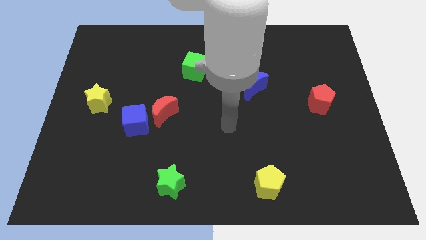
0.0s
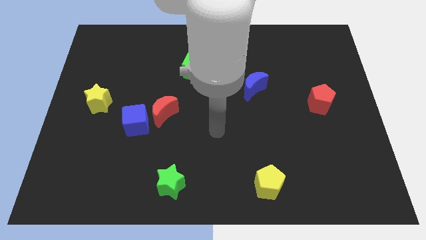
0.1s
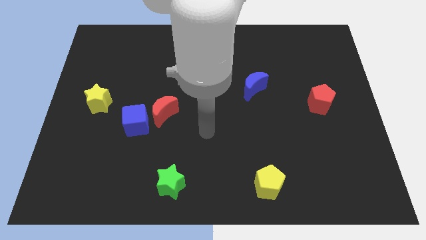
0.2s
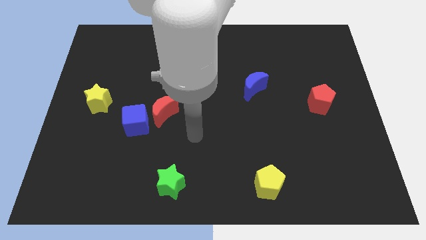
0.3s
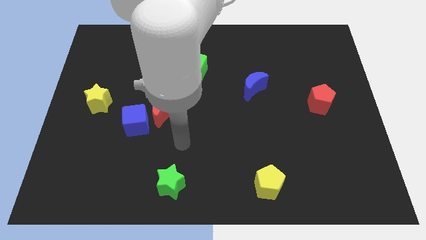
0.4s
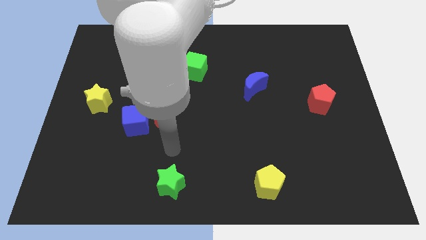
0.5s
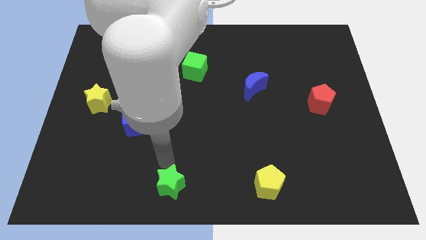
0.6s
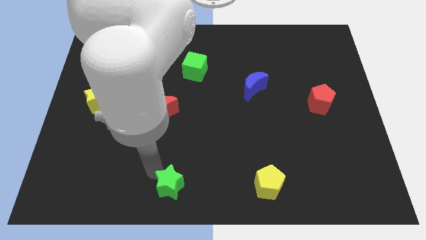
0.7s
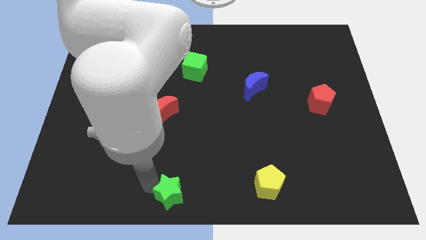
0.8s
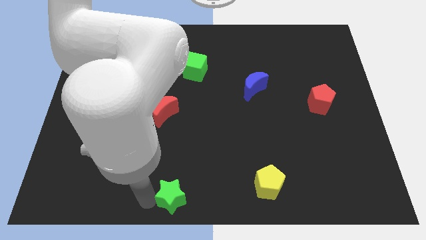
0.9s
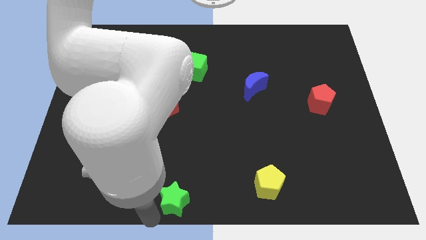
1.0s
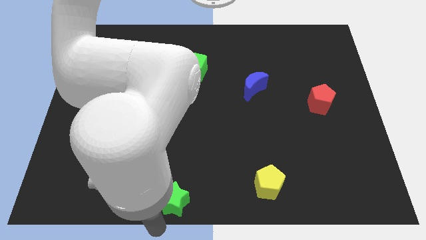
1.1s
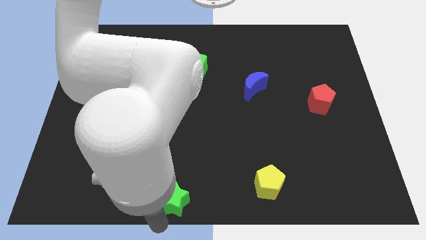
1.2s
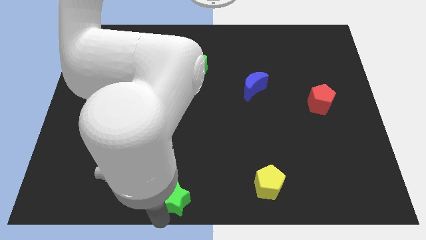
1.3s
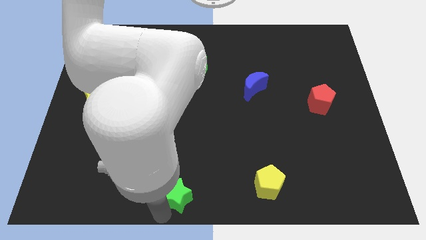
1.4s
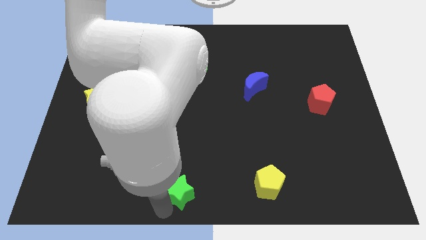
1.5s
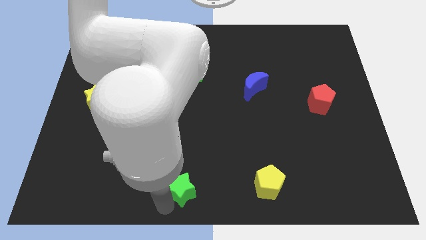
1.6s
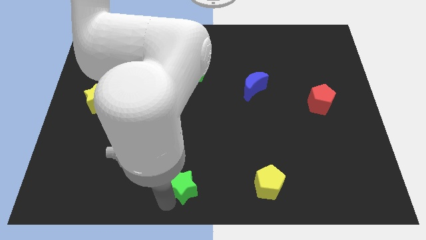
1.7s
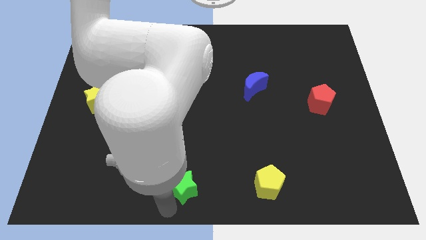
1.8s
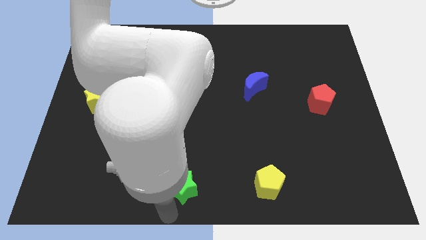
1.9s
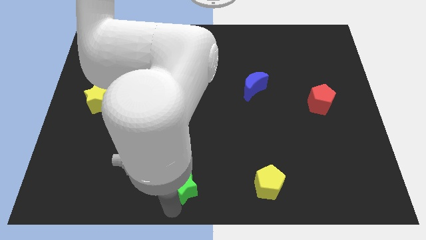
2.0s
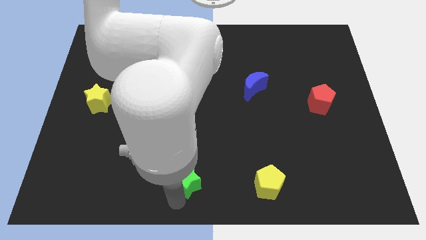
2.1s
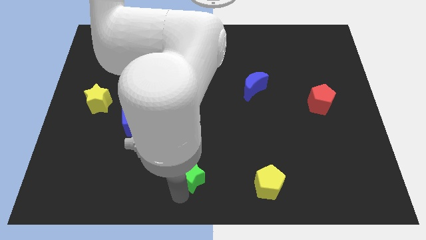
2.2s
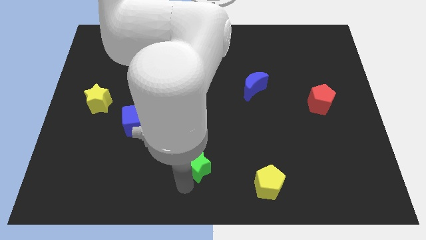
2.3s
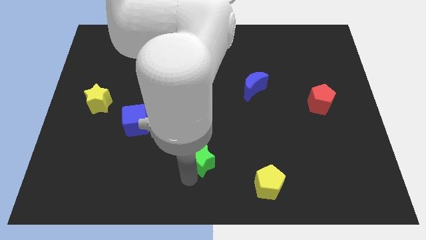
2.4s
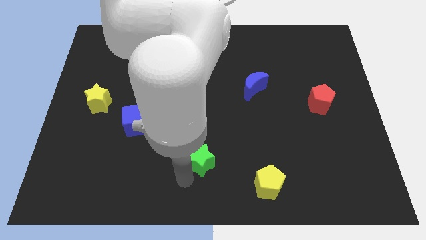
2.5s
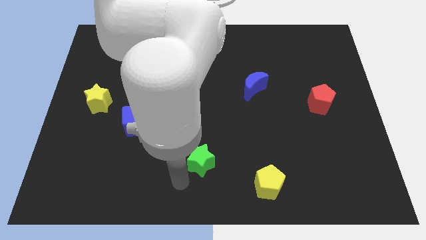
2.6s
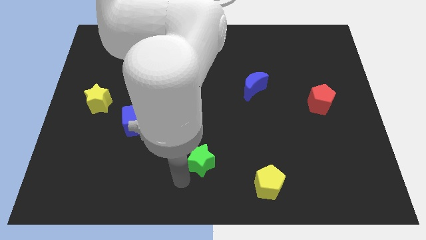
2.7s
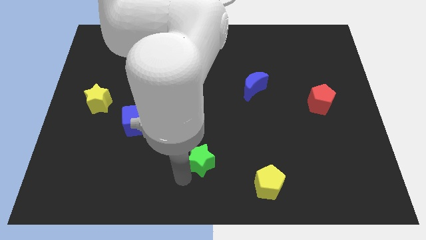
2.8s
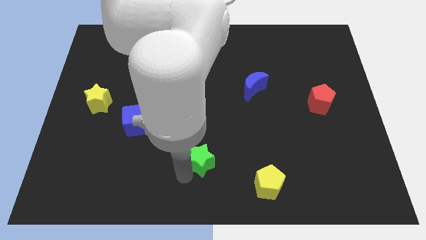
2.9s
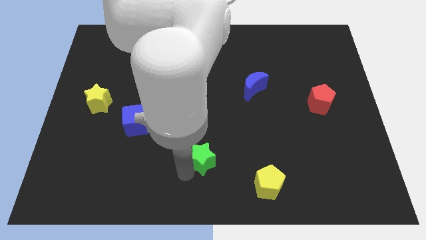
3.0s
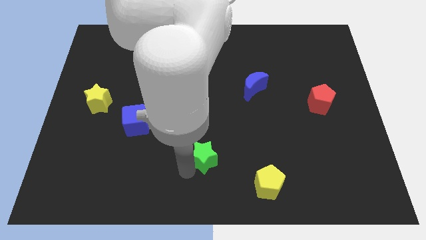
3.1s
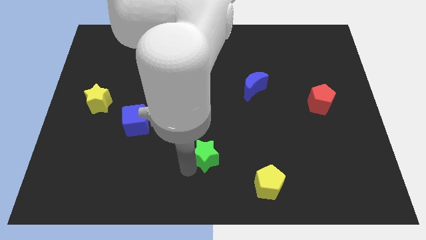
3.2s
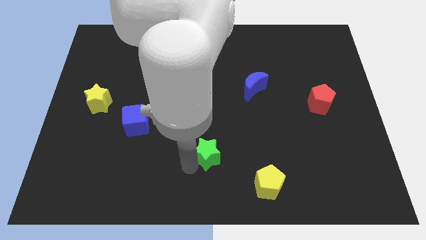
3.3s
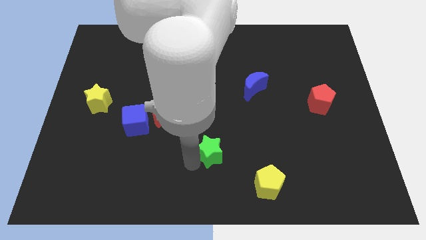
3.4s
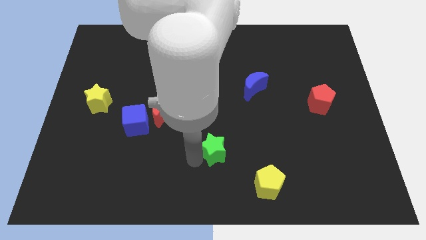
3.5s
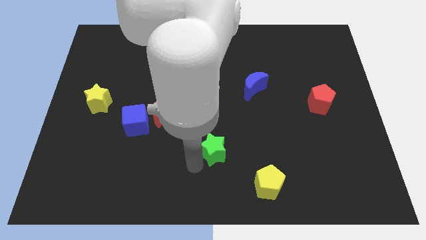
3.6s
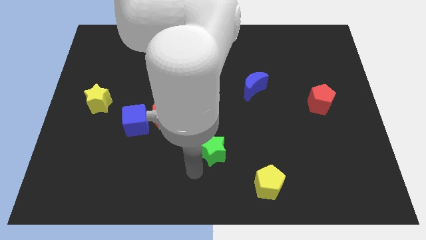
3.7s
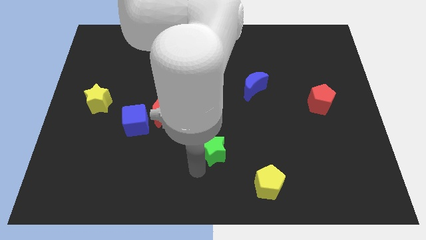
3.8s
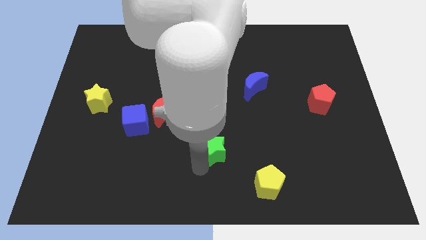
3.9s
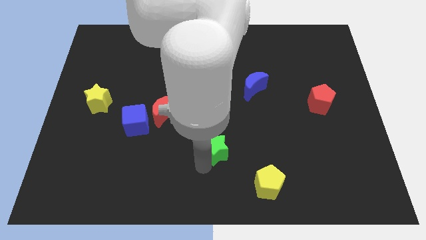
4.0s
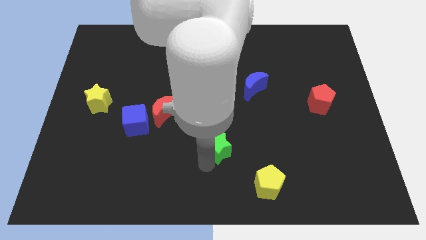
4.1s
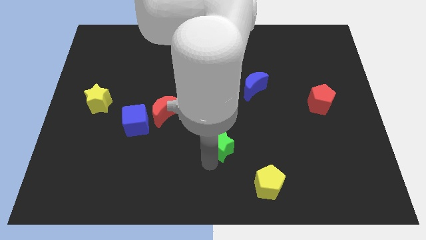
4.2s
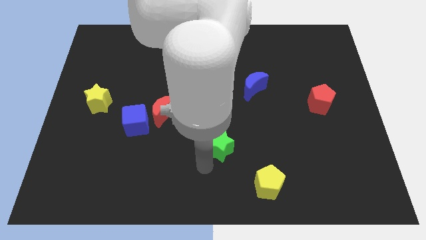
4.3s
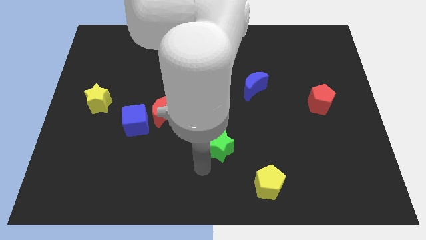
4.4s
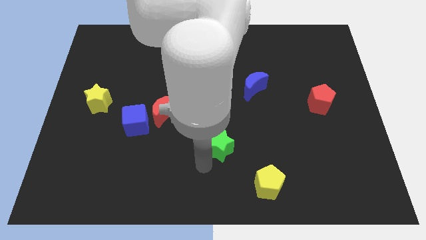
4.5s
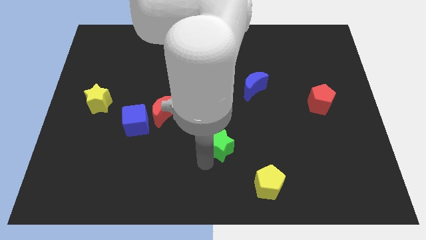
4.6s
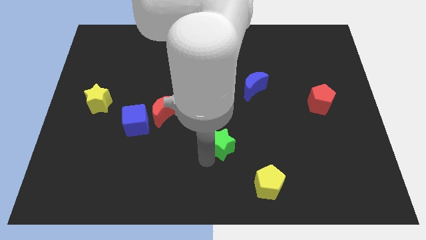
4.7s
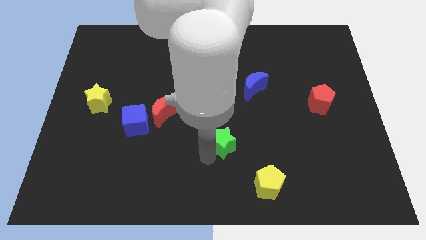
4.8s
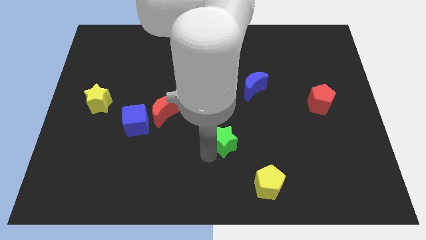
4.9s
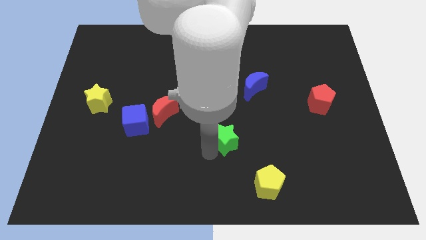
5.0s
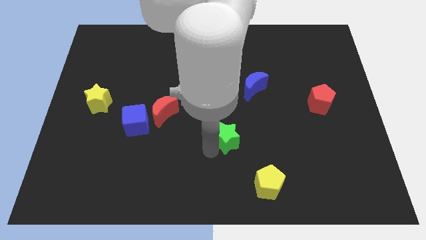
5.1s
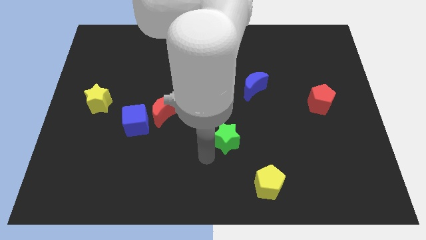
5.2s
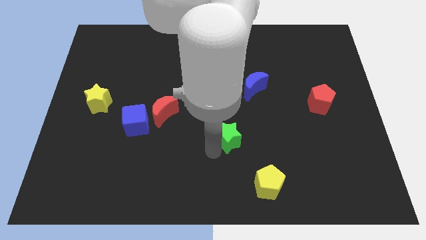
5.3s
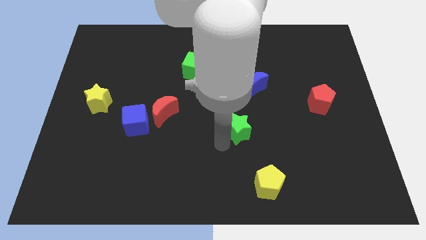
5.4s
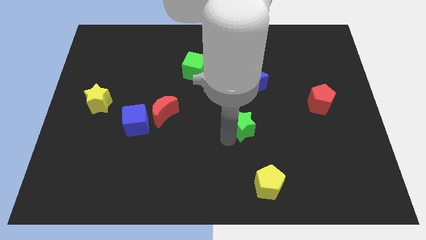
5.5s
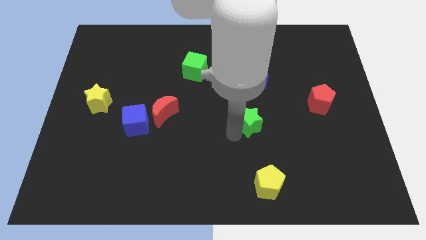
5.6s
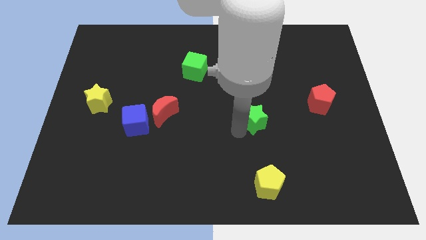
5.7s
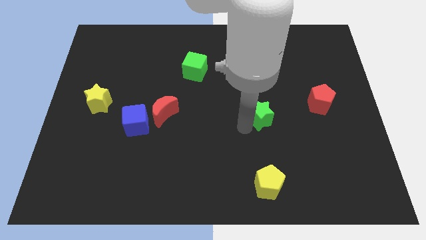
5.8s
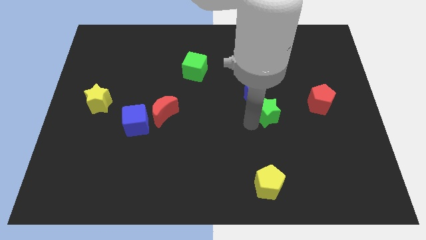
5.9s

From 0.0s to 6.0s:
slide the green star left of the red pentagon

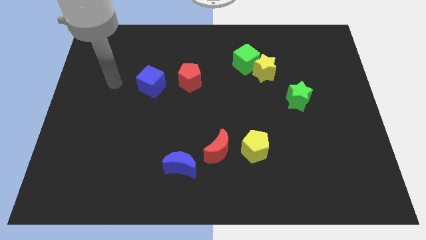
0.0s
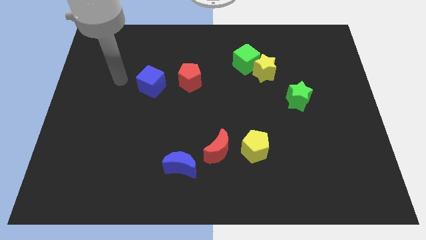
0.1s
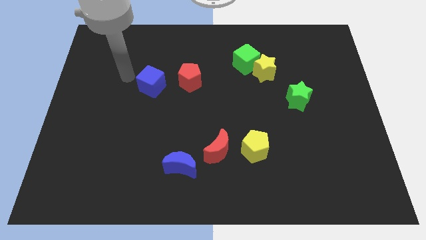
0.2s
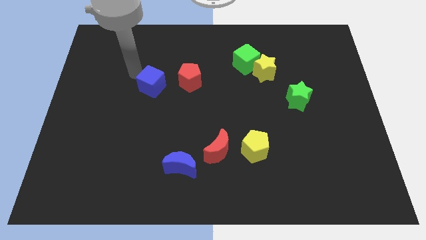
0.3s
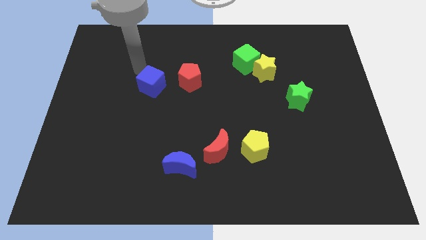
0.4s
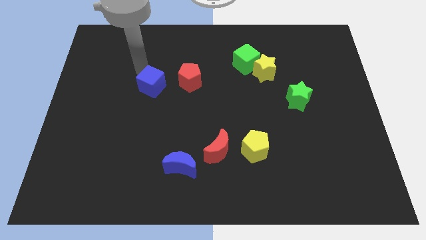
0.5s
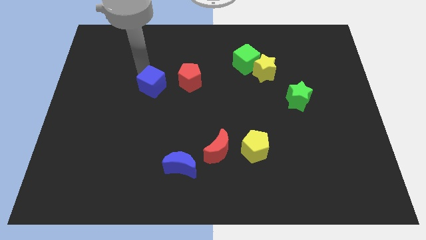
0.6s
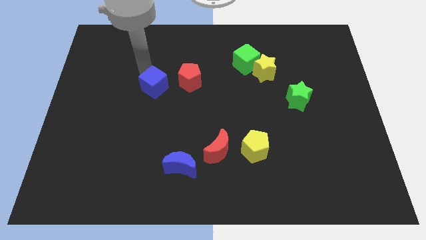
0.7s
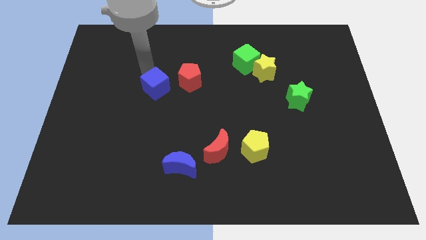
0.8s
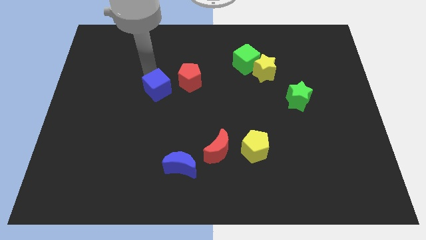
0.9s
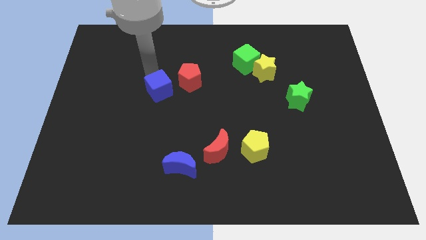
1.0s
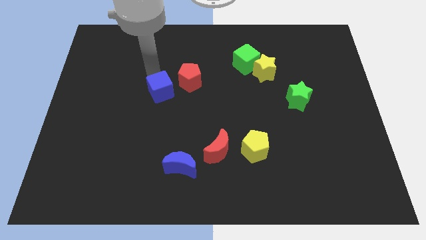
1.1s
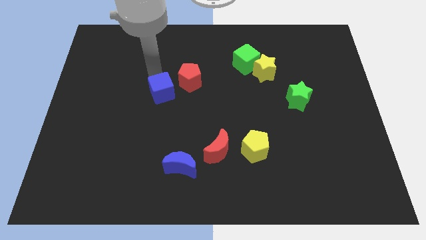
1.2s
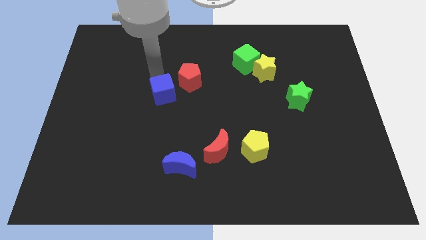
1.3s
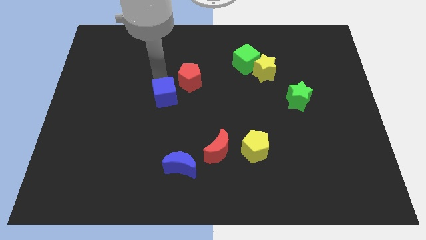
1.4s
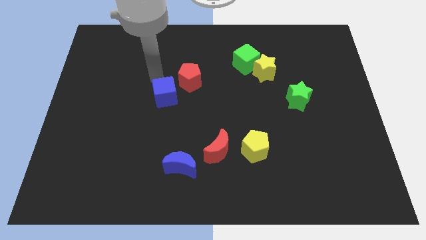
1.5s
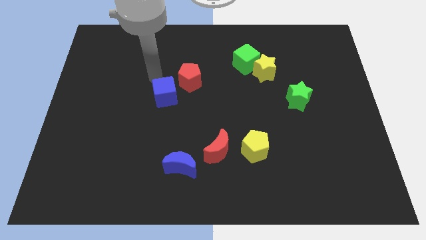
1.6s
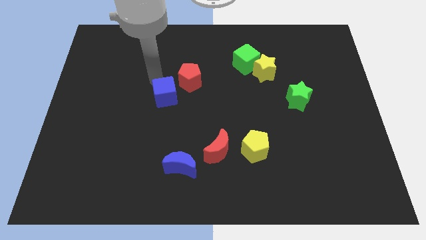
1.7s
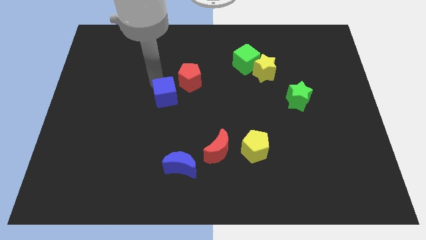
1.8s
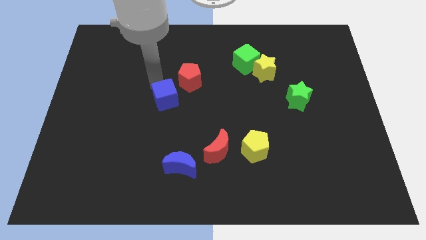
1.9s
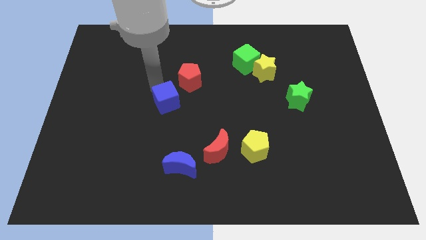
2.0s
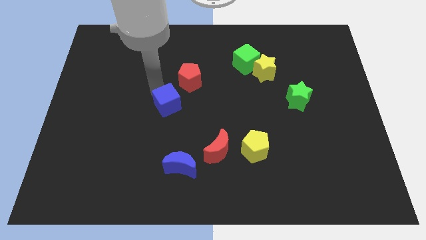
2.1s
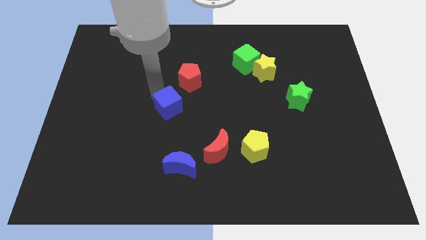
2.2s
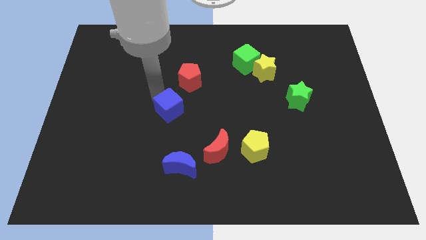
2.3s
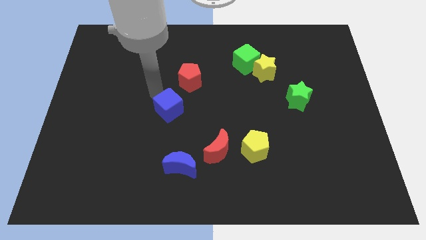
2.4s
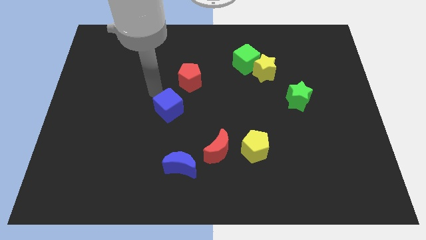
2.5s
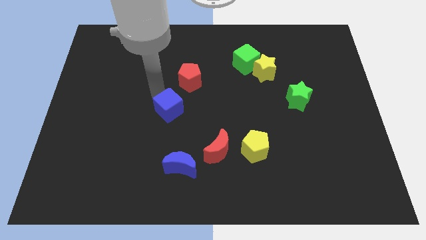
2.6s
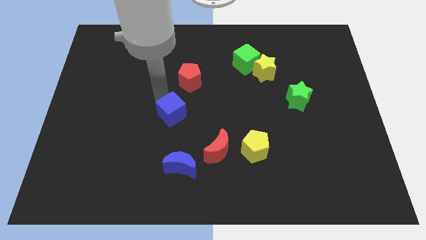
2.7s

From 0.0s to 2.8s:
move the blue cube to the top side of the blue moon
